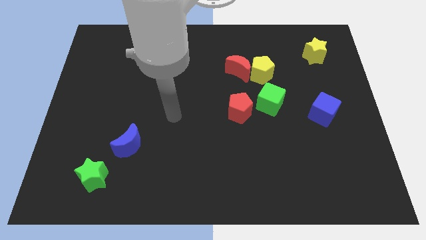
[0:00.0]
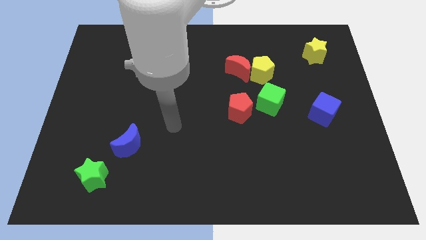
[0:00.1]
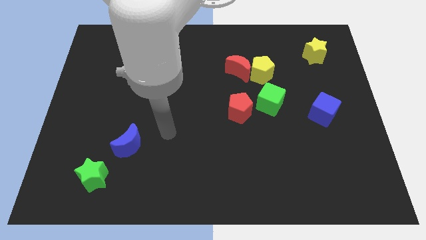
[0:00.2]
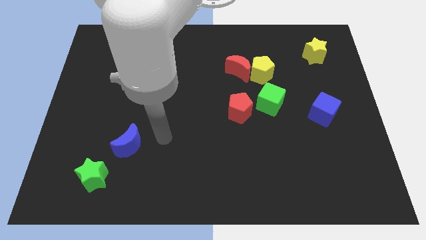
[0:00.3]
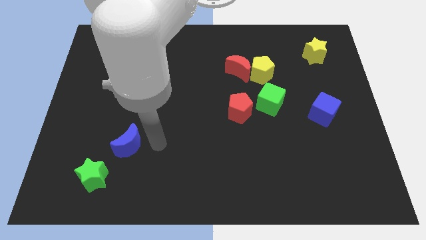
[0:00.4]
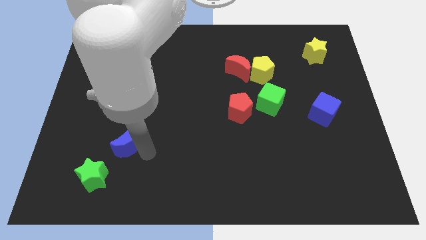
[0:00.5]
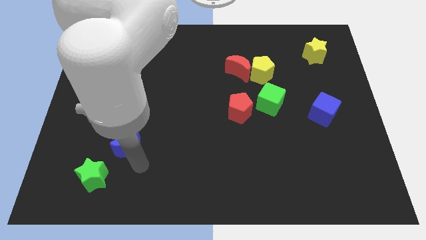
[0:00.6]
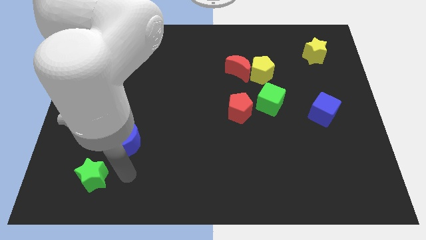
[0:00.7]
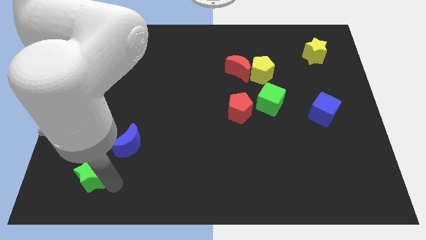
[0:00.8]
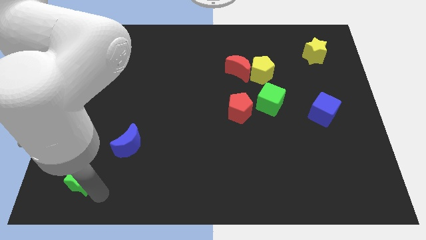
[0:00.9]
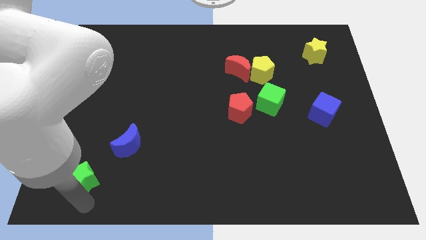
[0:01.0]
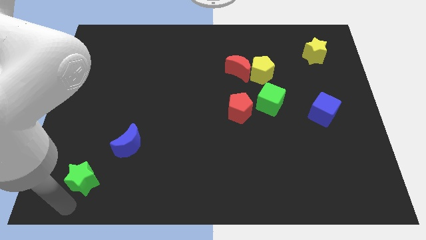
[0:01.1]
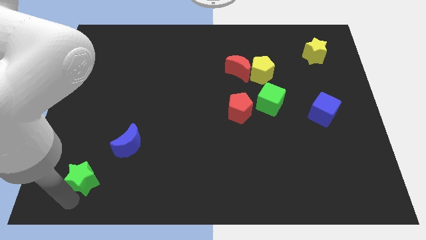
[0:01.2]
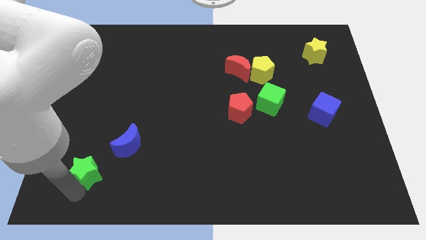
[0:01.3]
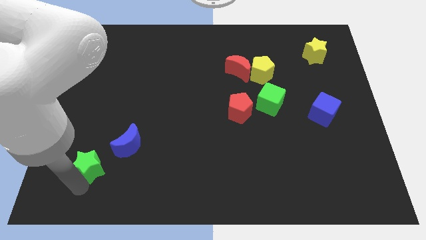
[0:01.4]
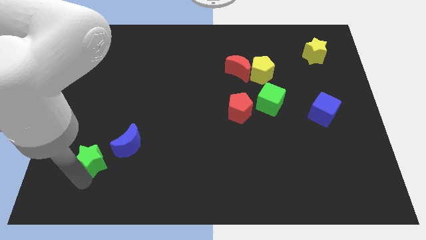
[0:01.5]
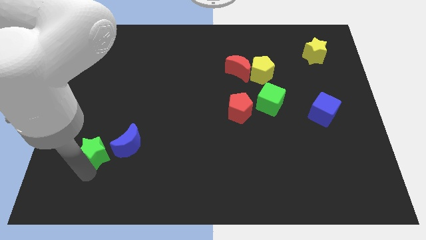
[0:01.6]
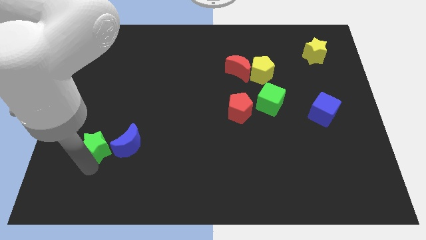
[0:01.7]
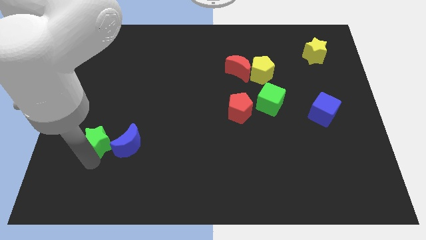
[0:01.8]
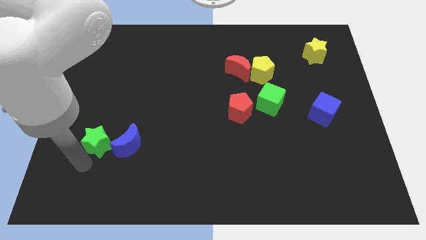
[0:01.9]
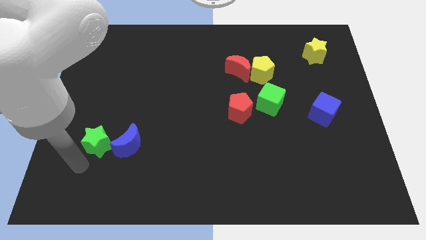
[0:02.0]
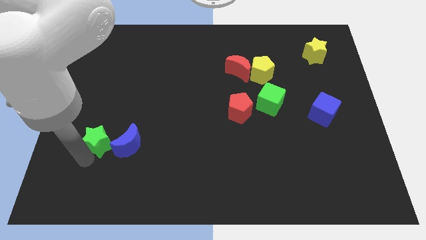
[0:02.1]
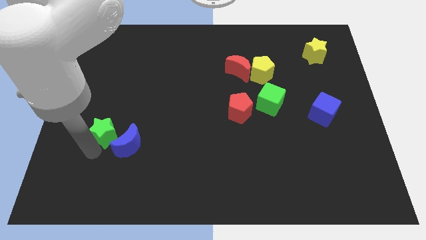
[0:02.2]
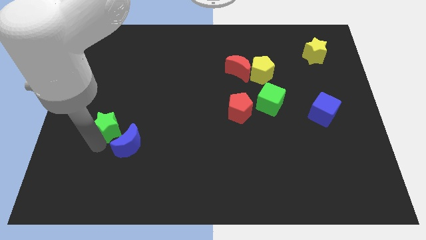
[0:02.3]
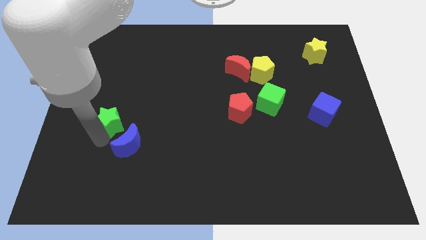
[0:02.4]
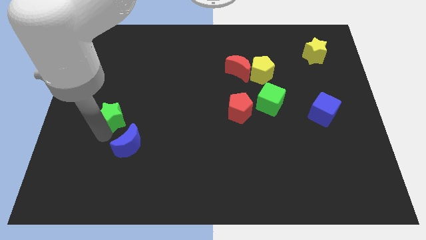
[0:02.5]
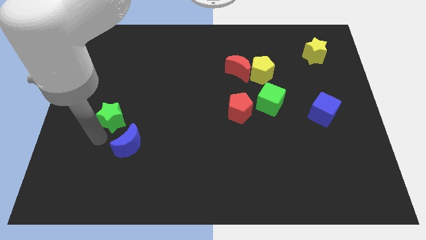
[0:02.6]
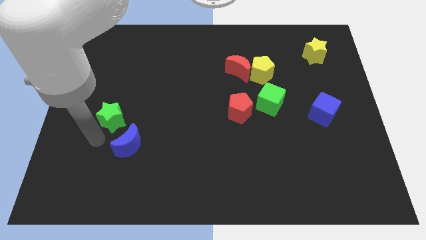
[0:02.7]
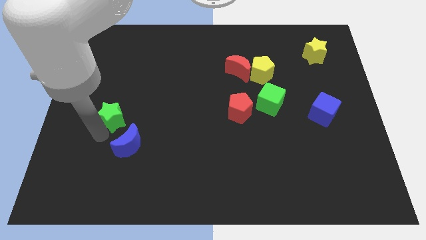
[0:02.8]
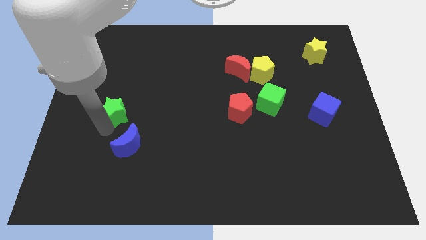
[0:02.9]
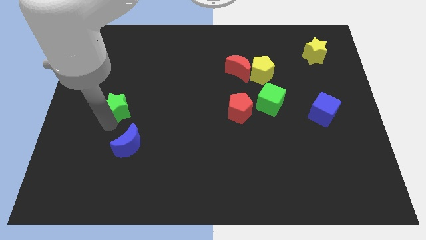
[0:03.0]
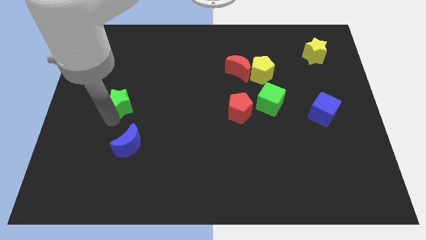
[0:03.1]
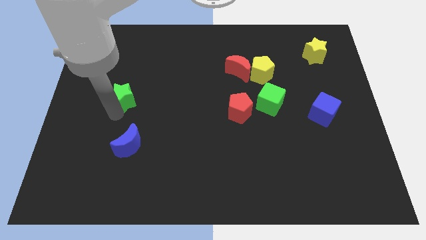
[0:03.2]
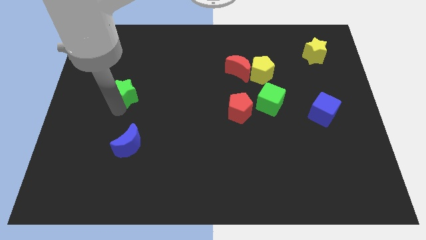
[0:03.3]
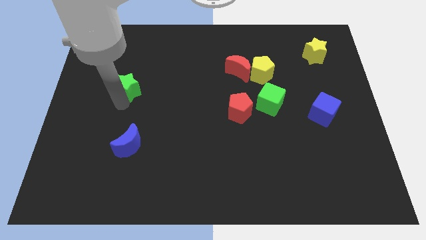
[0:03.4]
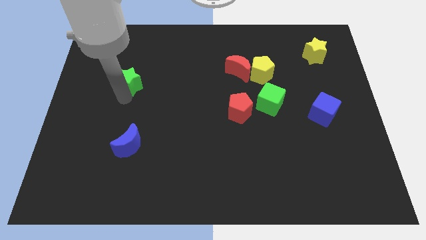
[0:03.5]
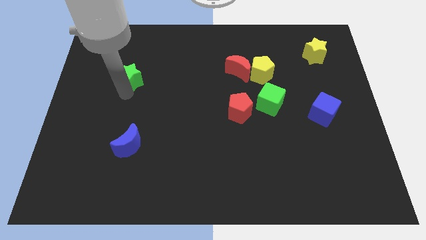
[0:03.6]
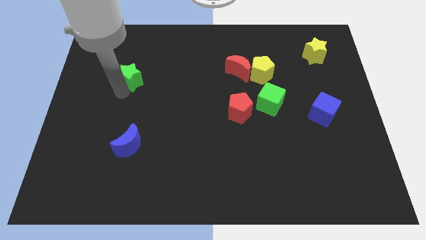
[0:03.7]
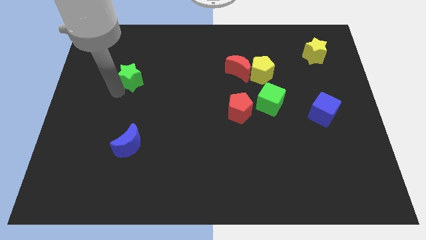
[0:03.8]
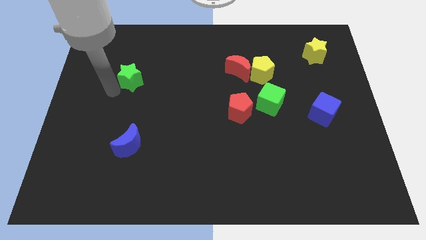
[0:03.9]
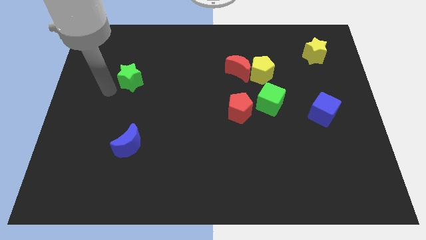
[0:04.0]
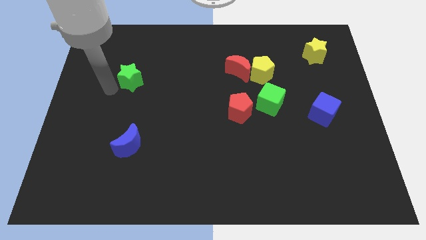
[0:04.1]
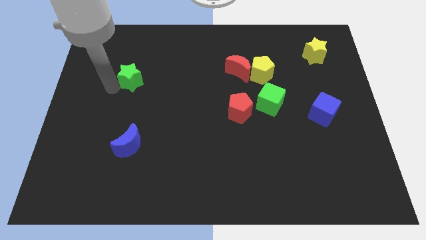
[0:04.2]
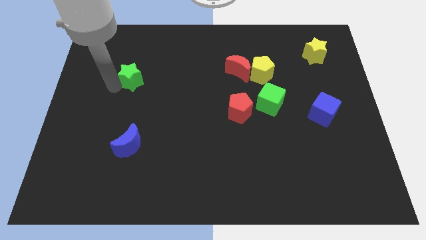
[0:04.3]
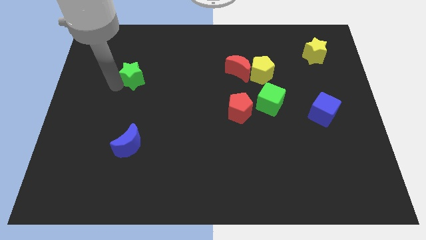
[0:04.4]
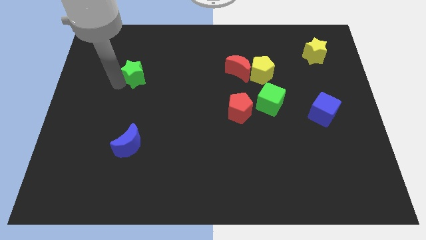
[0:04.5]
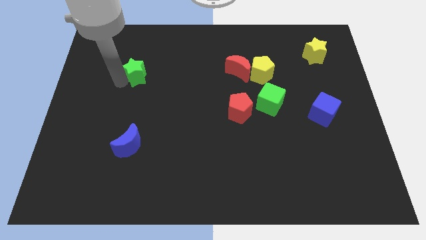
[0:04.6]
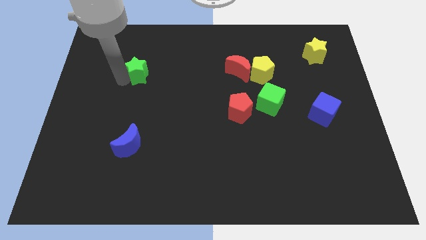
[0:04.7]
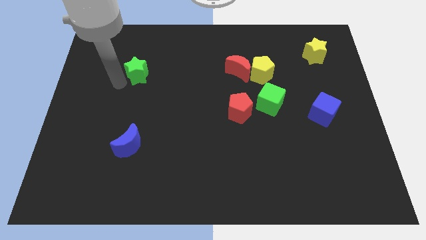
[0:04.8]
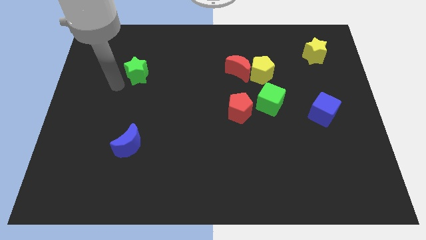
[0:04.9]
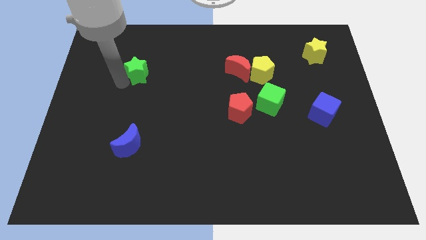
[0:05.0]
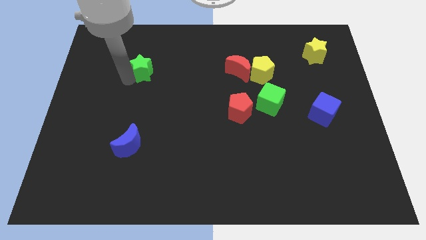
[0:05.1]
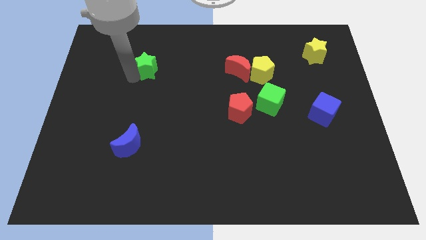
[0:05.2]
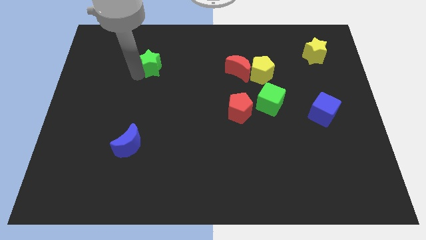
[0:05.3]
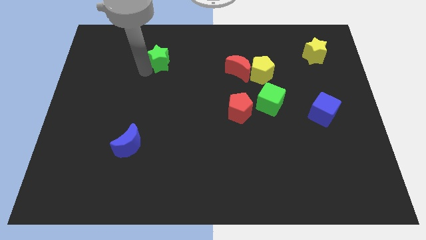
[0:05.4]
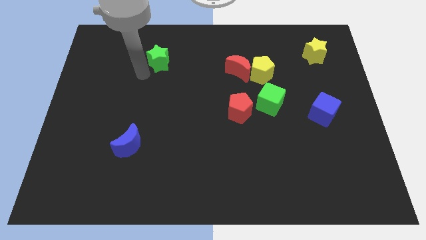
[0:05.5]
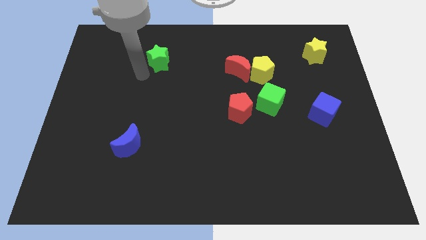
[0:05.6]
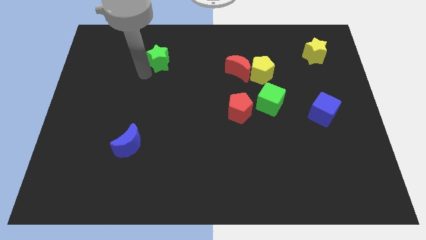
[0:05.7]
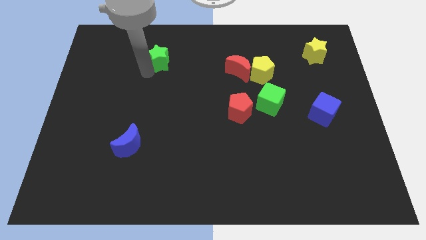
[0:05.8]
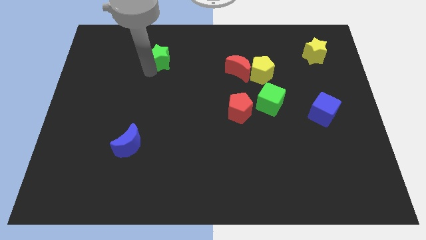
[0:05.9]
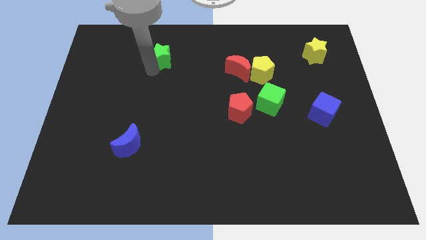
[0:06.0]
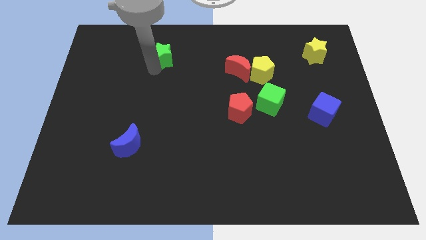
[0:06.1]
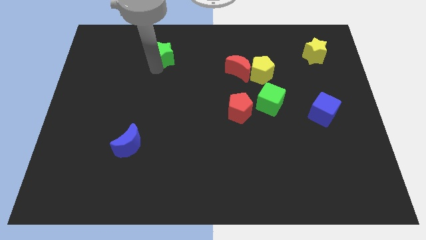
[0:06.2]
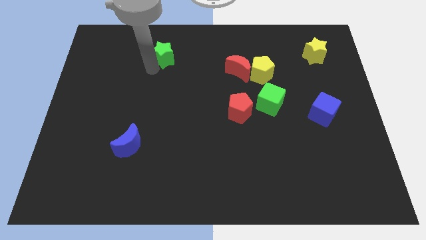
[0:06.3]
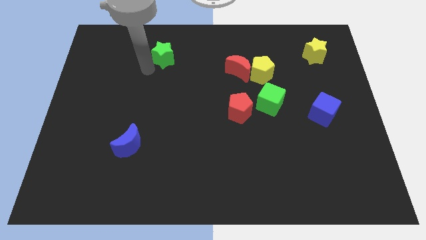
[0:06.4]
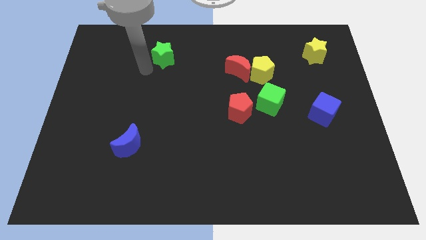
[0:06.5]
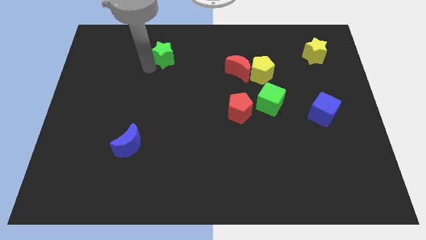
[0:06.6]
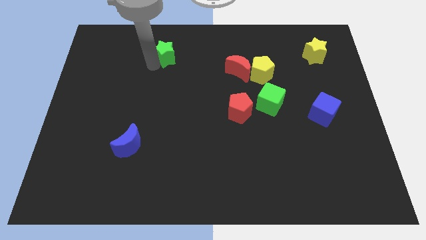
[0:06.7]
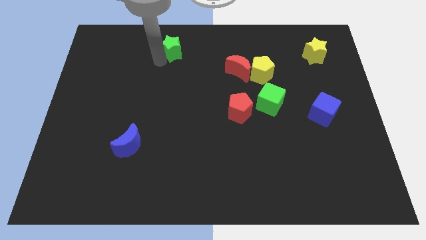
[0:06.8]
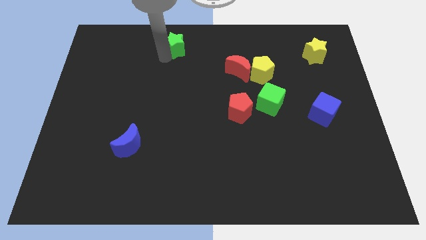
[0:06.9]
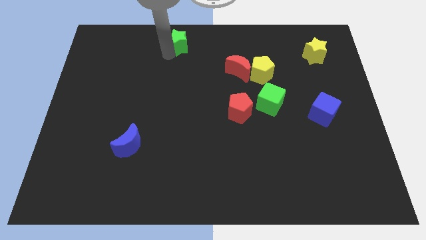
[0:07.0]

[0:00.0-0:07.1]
slide the green star to the top side
